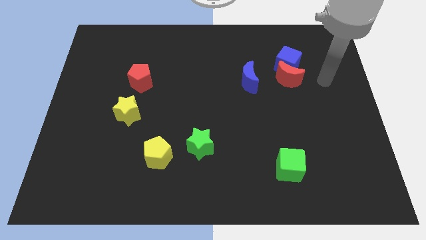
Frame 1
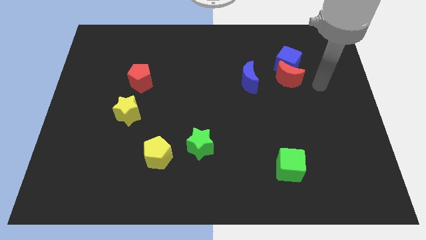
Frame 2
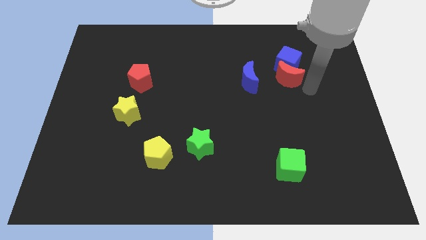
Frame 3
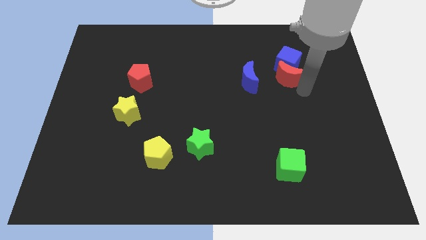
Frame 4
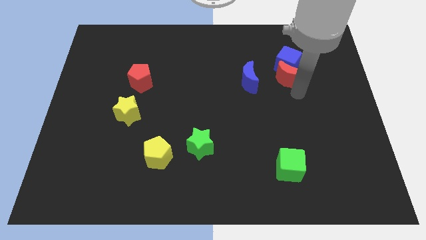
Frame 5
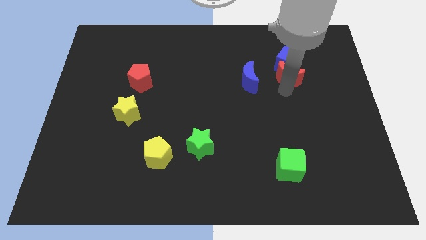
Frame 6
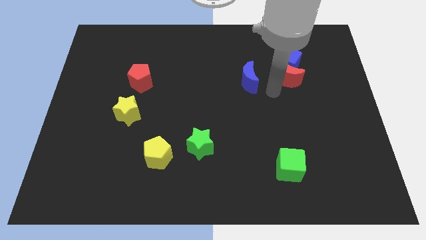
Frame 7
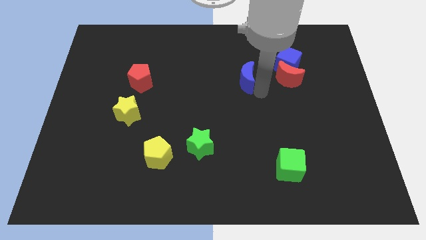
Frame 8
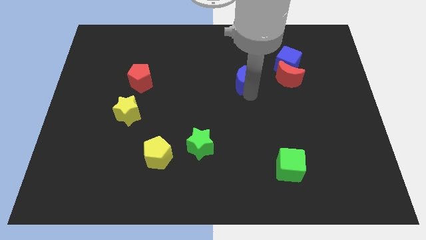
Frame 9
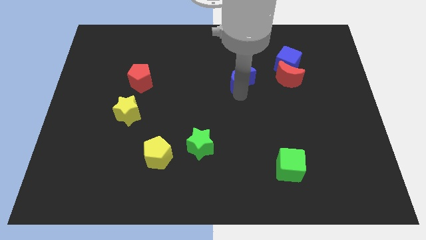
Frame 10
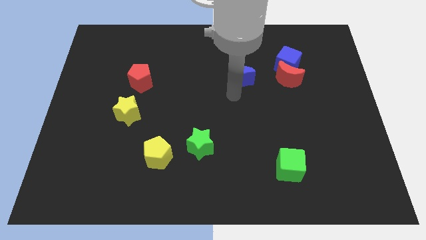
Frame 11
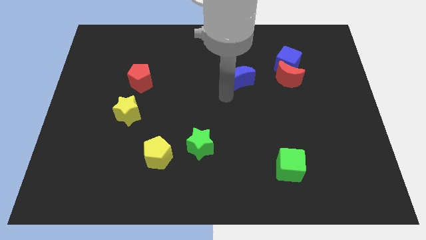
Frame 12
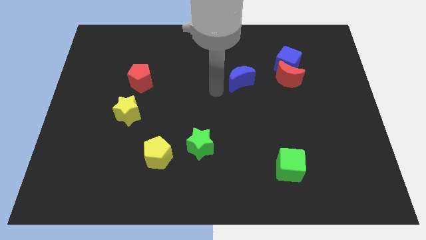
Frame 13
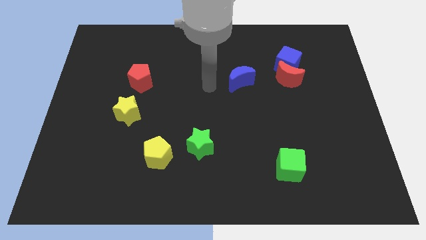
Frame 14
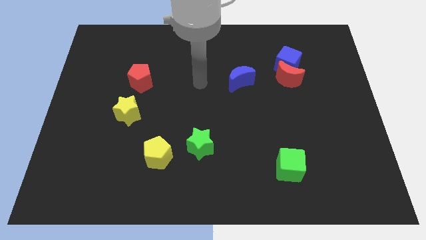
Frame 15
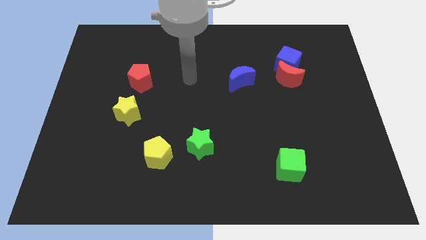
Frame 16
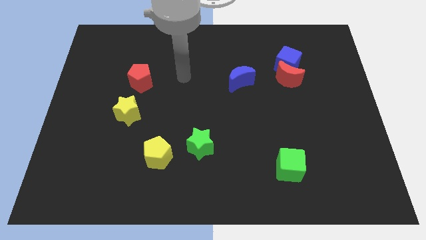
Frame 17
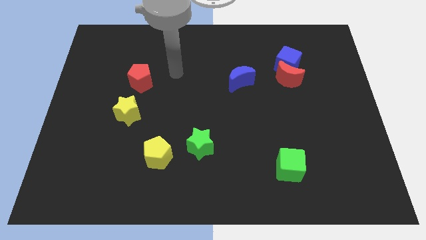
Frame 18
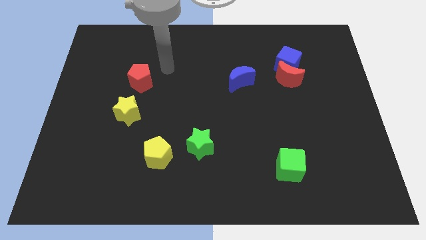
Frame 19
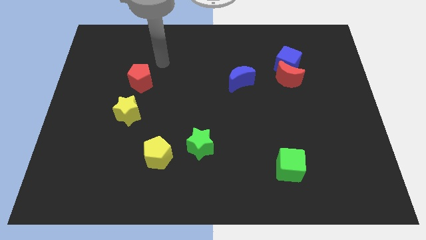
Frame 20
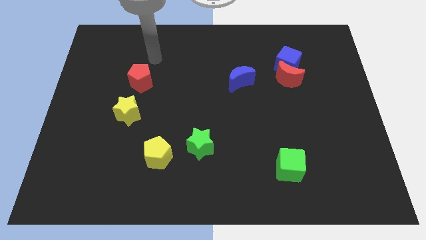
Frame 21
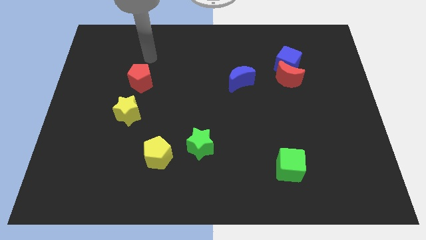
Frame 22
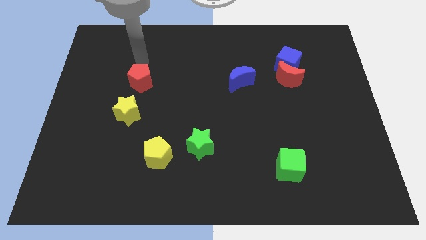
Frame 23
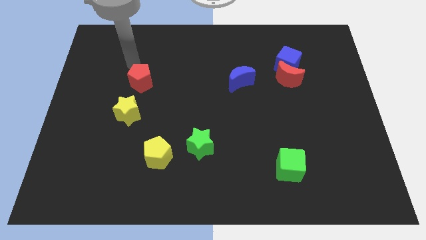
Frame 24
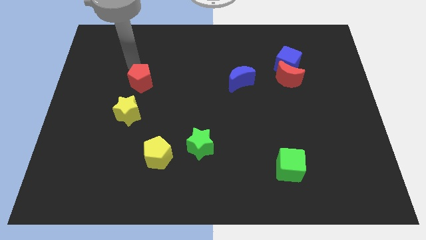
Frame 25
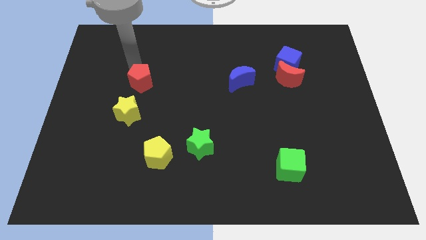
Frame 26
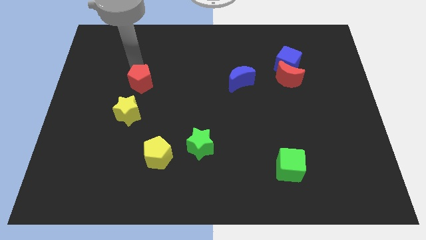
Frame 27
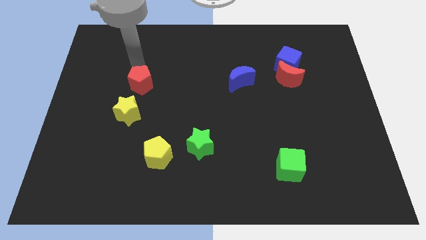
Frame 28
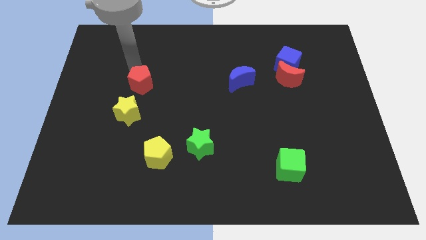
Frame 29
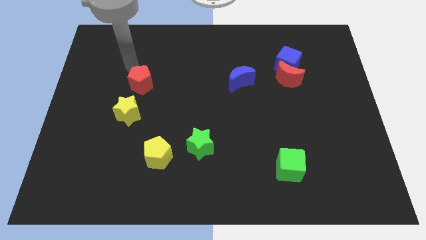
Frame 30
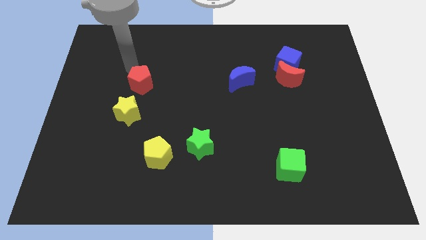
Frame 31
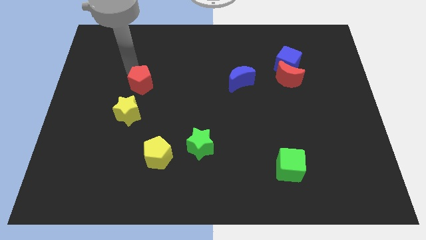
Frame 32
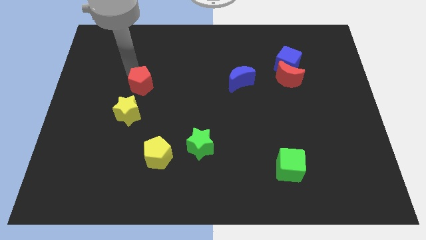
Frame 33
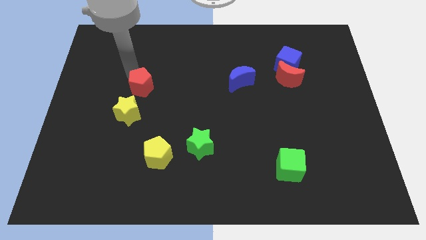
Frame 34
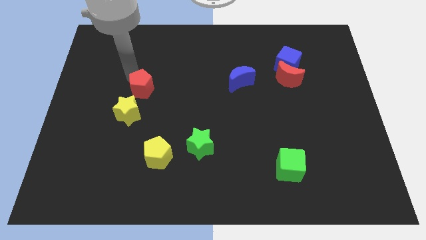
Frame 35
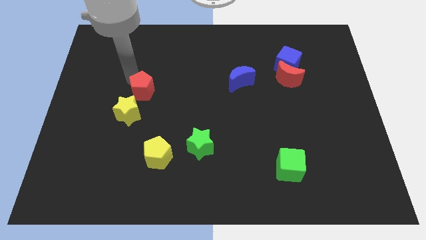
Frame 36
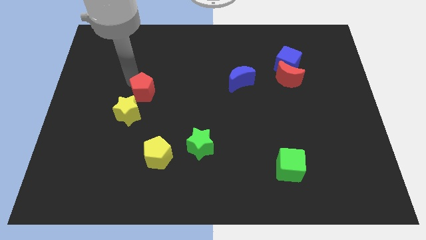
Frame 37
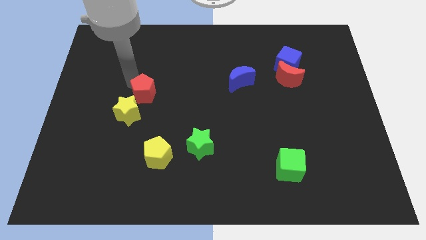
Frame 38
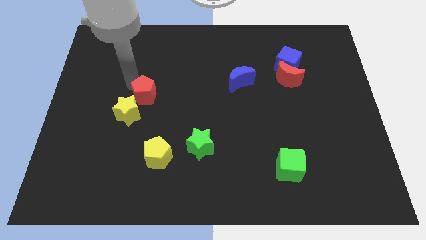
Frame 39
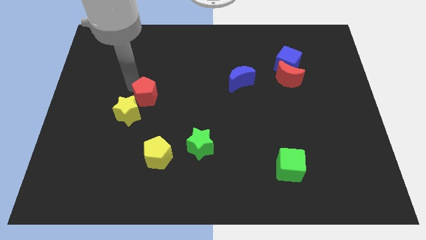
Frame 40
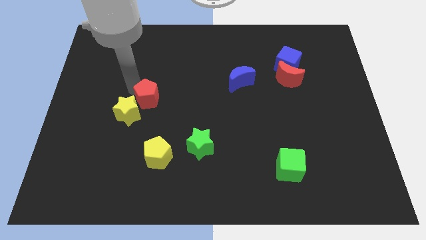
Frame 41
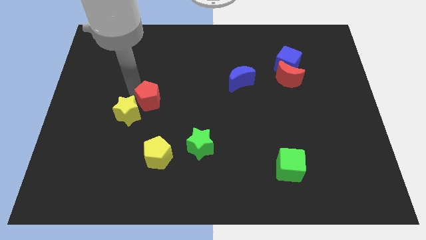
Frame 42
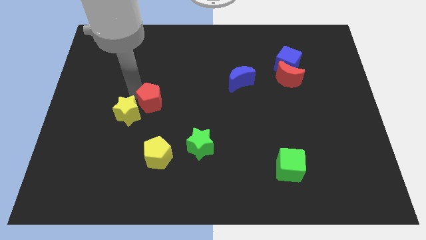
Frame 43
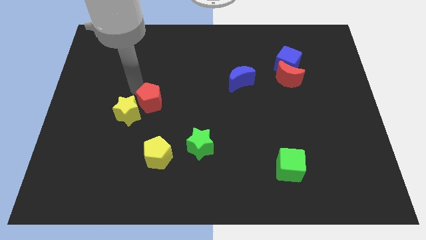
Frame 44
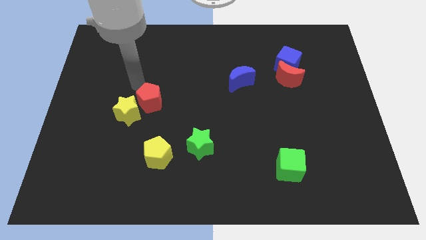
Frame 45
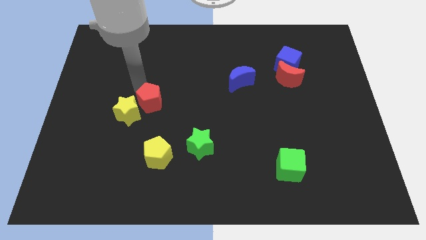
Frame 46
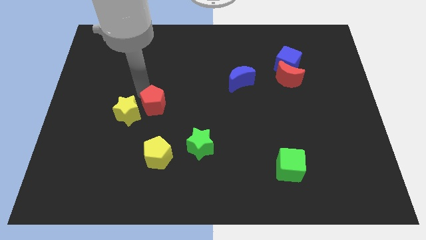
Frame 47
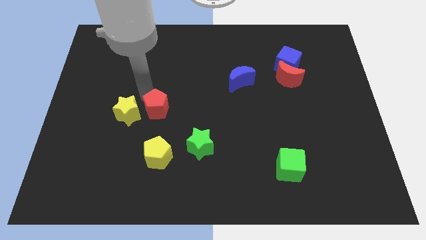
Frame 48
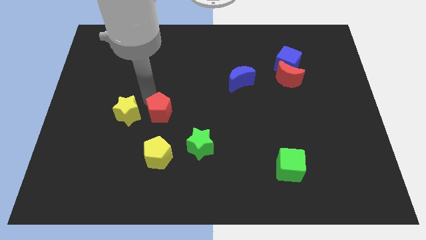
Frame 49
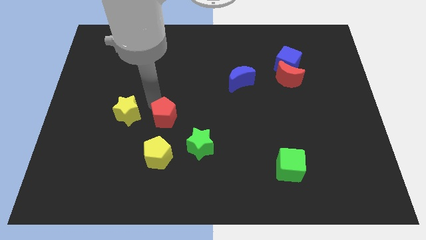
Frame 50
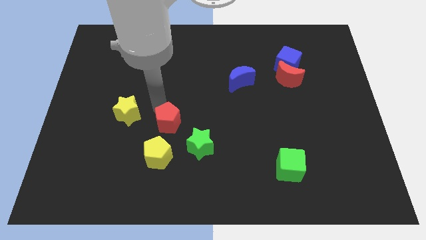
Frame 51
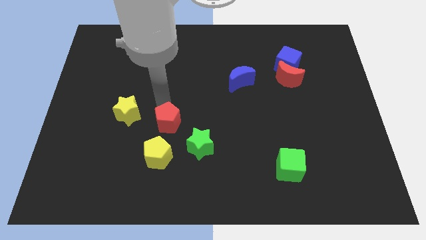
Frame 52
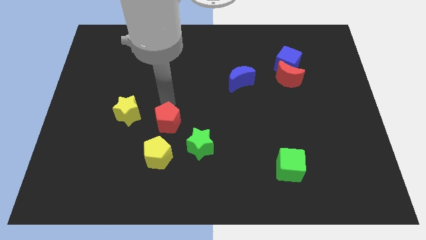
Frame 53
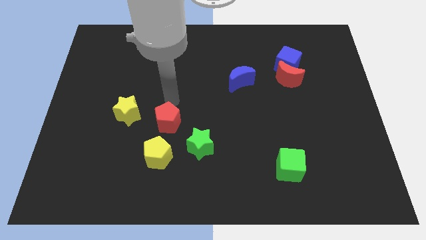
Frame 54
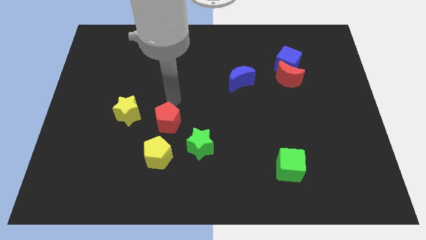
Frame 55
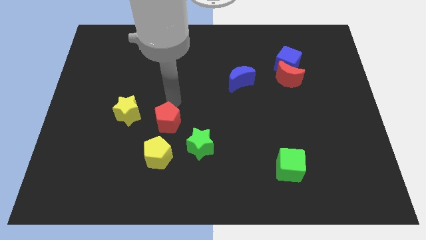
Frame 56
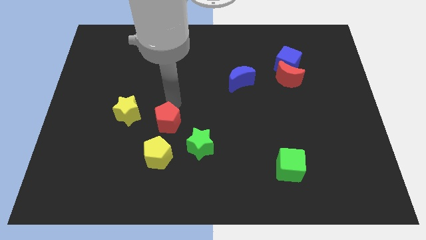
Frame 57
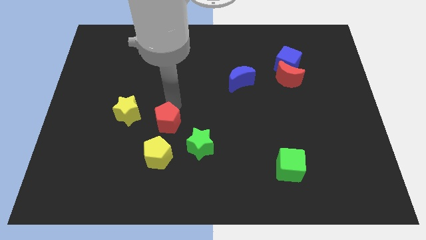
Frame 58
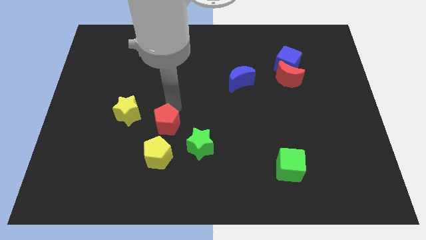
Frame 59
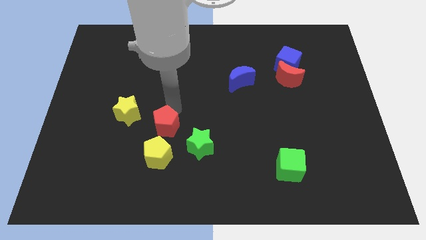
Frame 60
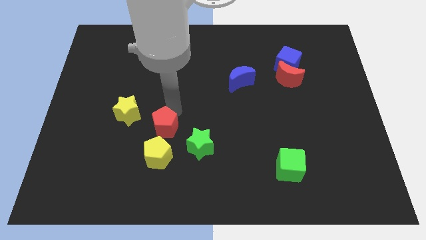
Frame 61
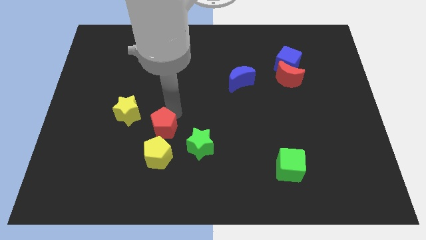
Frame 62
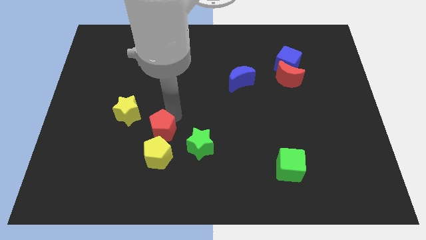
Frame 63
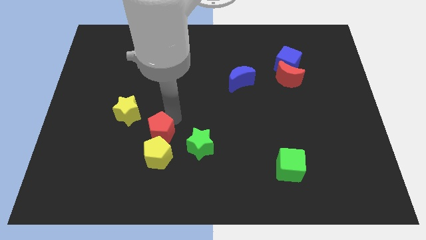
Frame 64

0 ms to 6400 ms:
put the red pentagon to the yellow pentagon

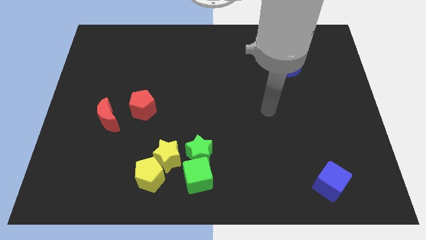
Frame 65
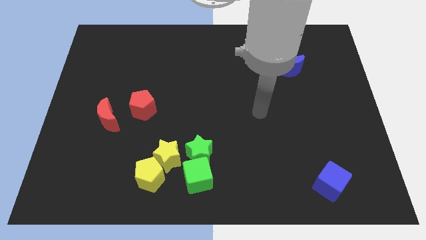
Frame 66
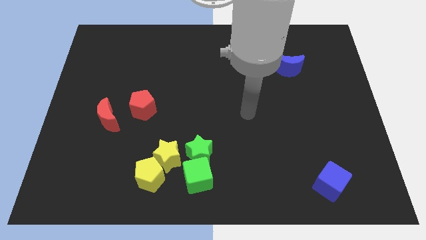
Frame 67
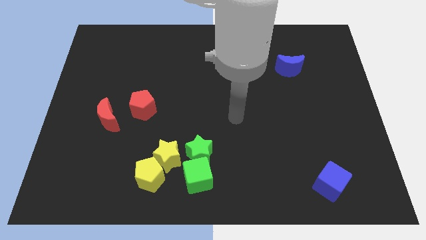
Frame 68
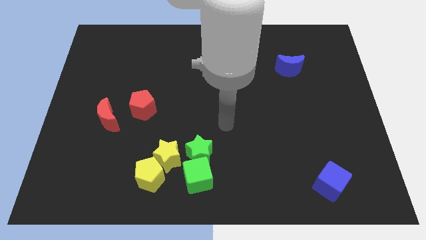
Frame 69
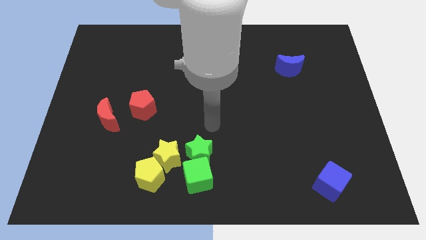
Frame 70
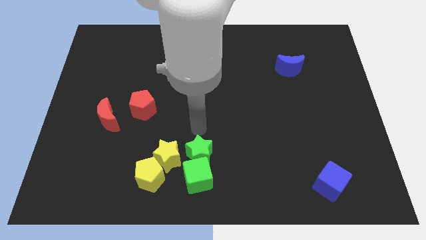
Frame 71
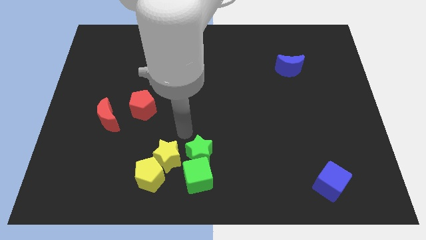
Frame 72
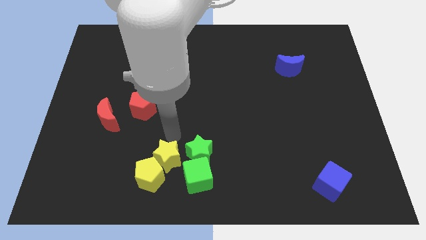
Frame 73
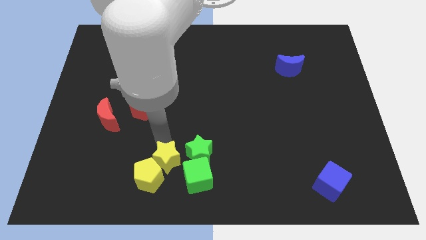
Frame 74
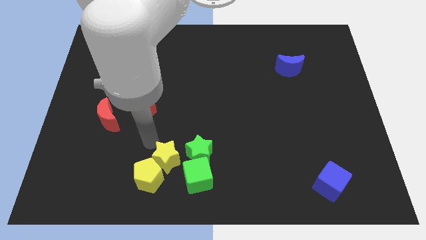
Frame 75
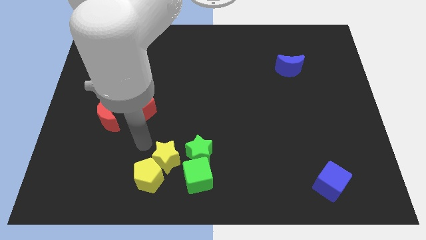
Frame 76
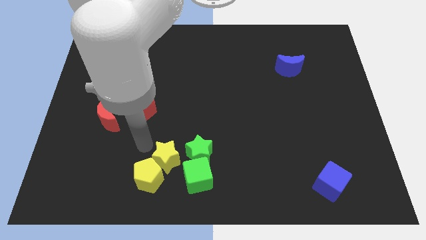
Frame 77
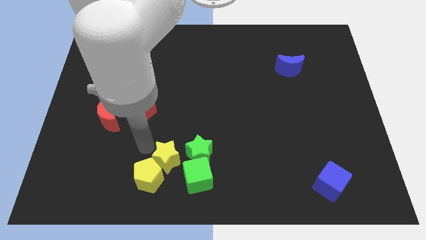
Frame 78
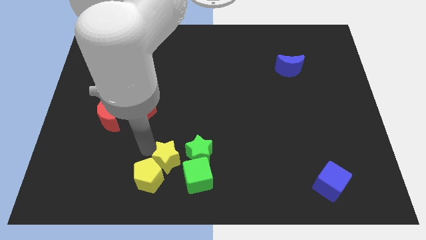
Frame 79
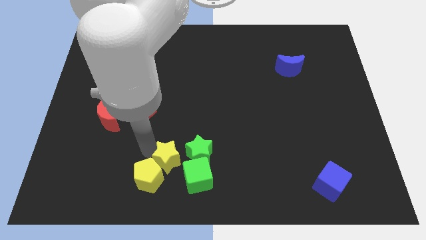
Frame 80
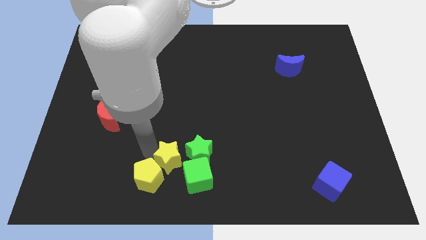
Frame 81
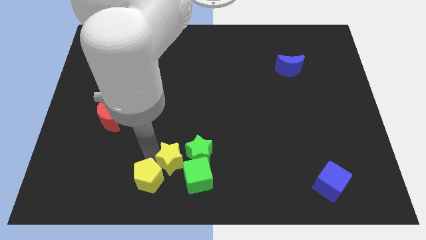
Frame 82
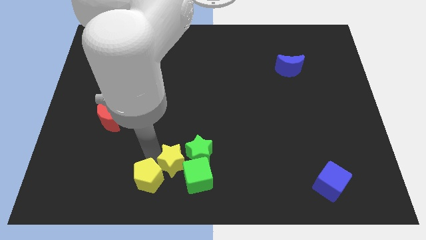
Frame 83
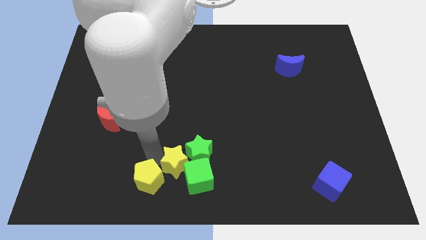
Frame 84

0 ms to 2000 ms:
move the yellow star close to the green cube
